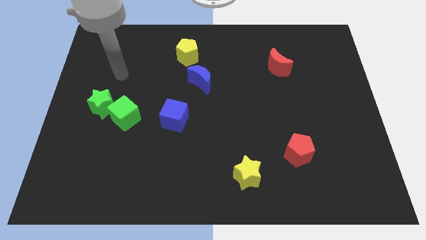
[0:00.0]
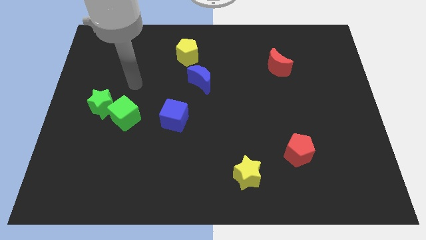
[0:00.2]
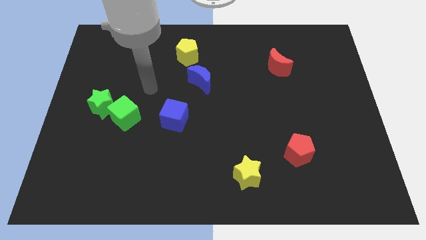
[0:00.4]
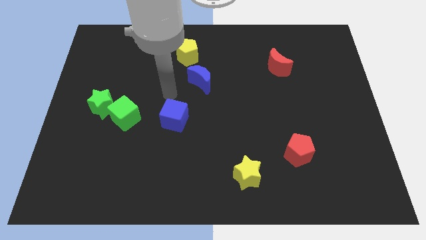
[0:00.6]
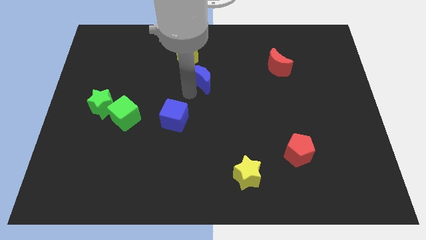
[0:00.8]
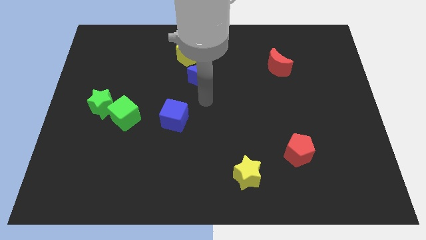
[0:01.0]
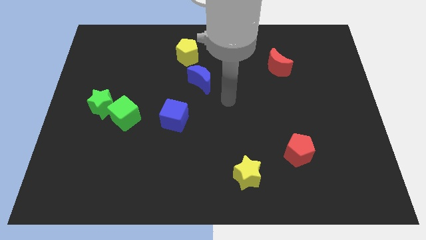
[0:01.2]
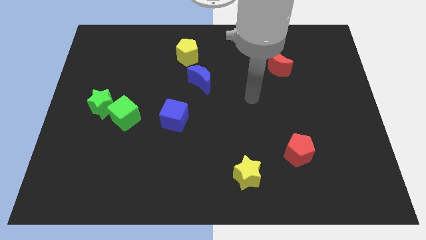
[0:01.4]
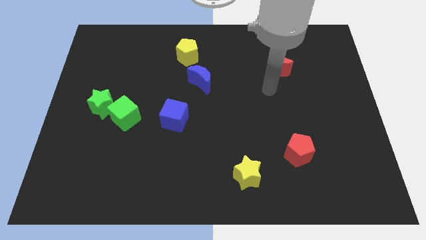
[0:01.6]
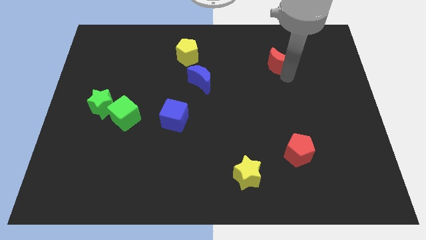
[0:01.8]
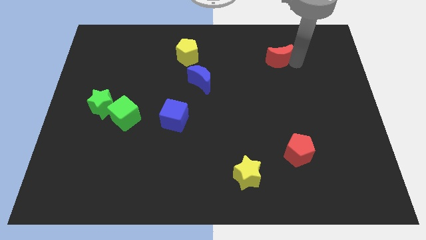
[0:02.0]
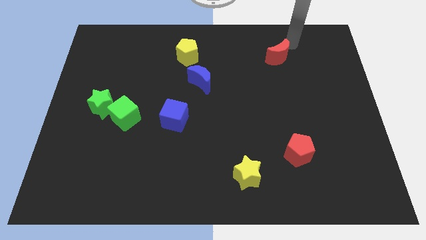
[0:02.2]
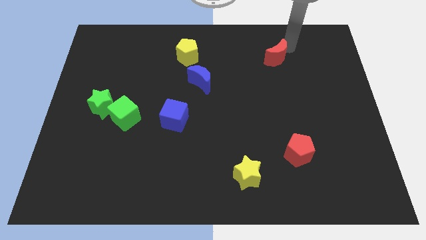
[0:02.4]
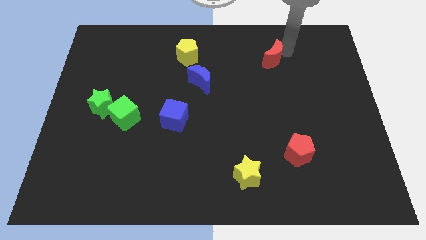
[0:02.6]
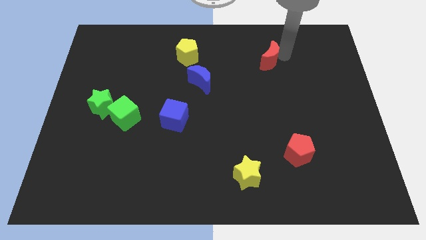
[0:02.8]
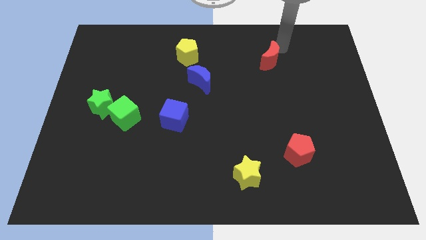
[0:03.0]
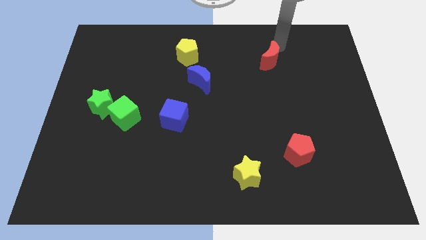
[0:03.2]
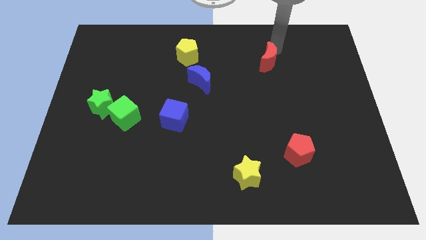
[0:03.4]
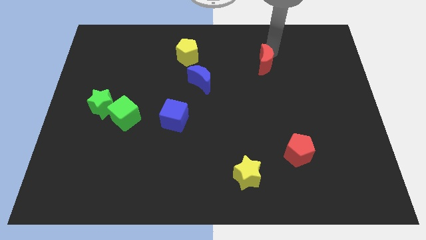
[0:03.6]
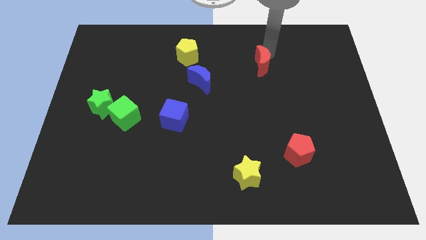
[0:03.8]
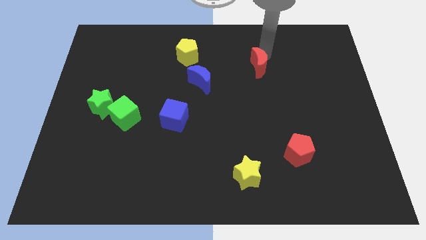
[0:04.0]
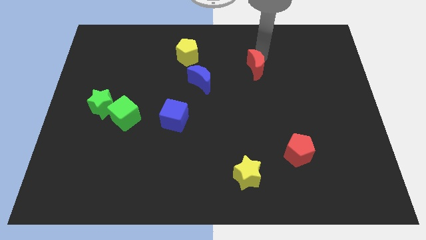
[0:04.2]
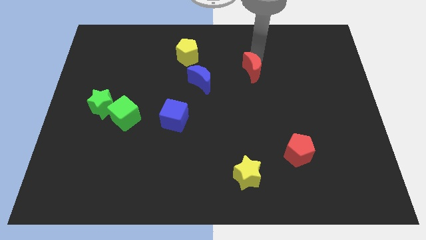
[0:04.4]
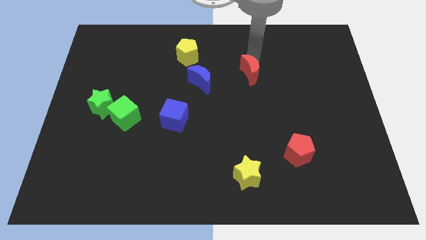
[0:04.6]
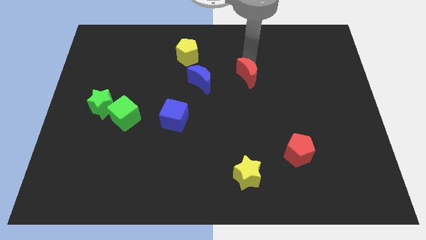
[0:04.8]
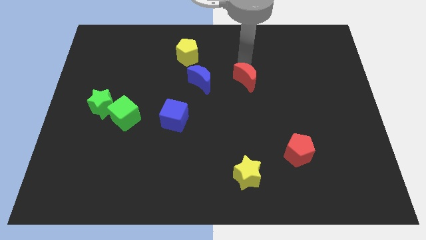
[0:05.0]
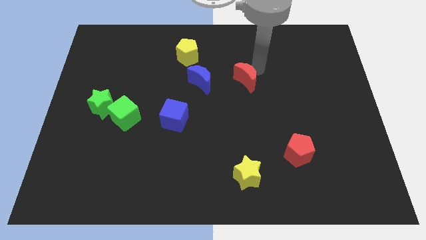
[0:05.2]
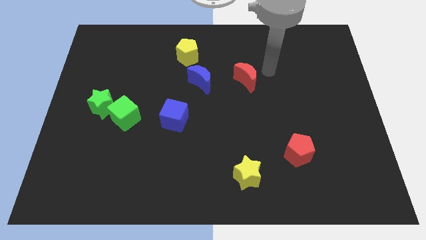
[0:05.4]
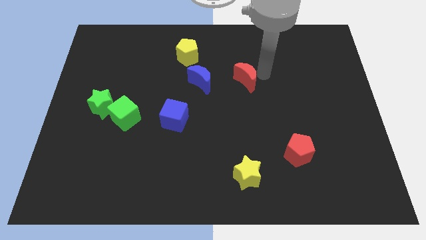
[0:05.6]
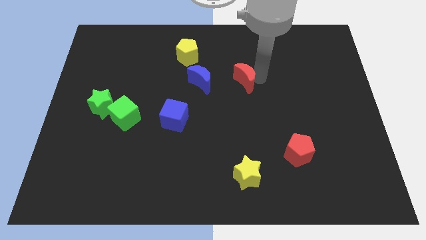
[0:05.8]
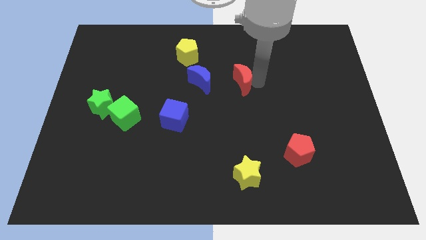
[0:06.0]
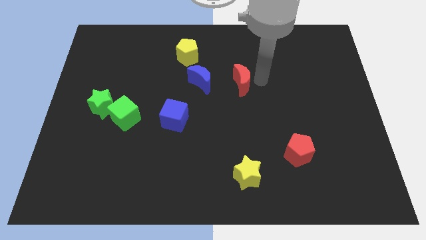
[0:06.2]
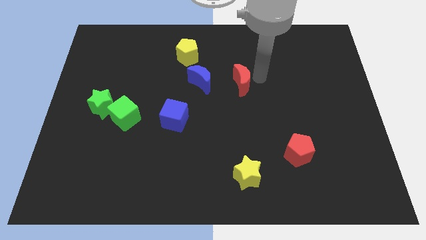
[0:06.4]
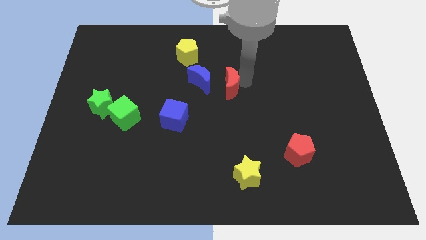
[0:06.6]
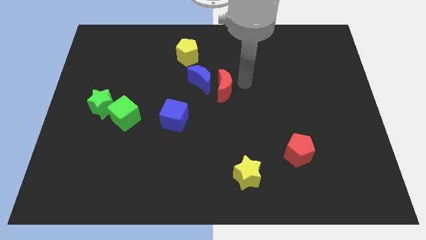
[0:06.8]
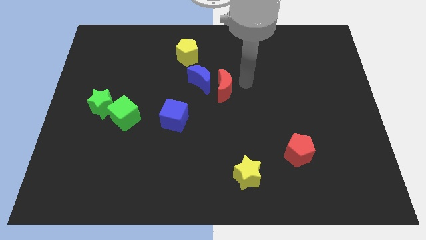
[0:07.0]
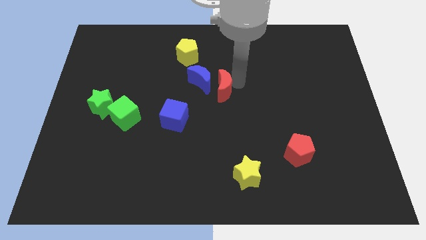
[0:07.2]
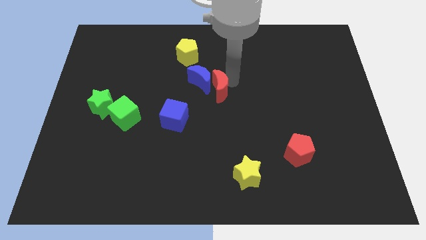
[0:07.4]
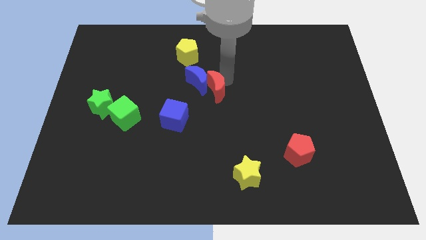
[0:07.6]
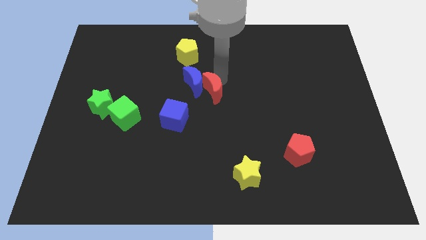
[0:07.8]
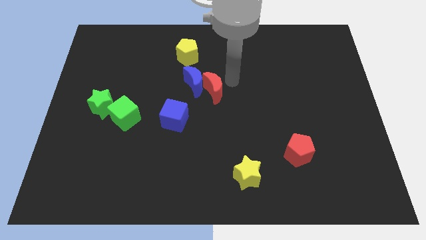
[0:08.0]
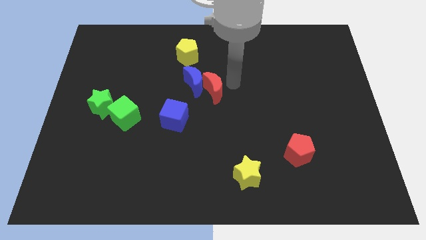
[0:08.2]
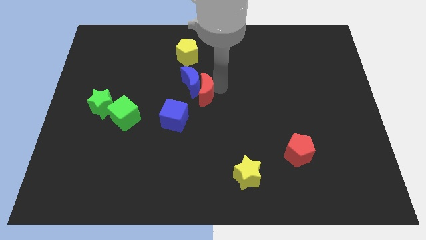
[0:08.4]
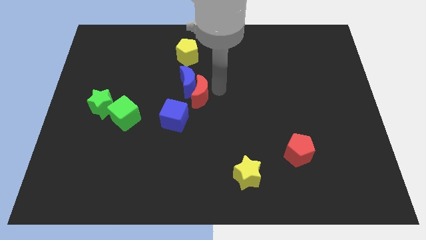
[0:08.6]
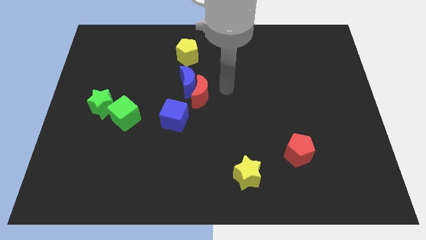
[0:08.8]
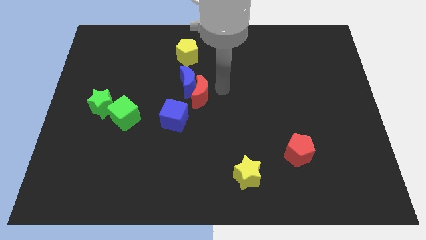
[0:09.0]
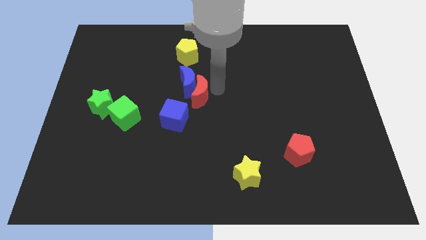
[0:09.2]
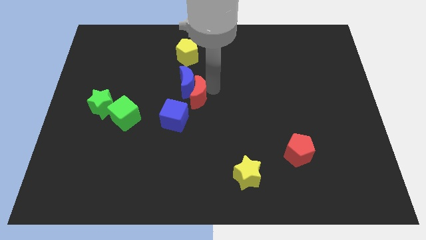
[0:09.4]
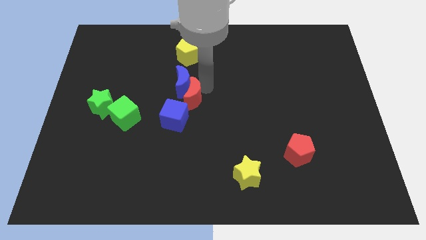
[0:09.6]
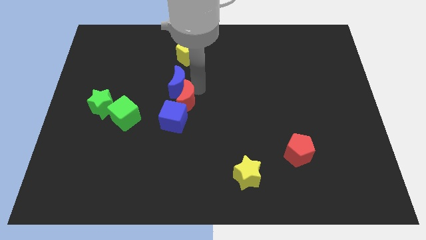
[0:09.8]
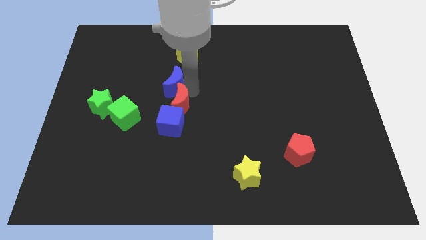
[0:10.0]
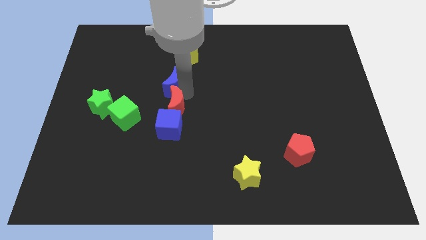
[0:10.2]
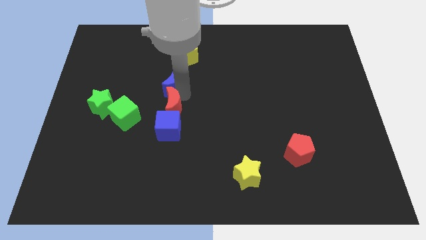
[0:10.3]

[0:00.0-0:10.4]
move the red moon to the top left side of the blue cube

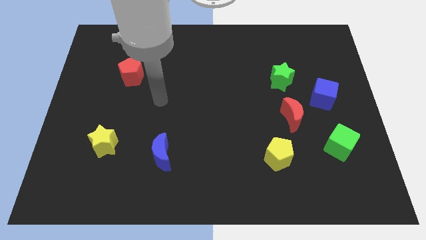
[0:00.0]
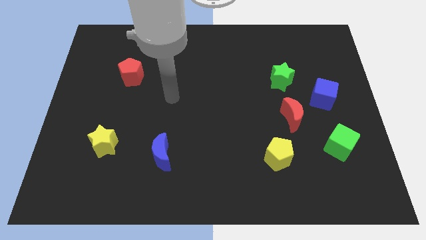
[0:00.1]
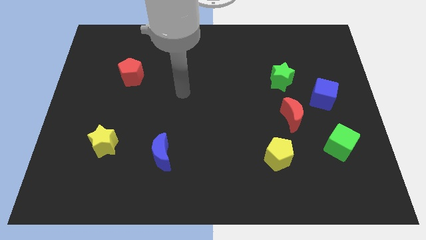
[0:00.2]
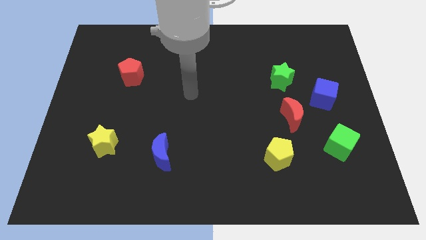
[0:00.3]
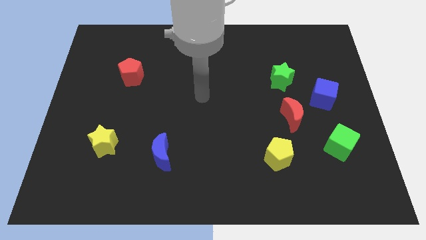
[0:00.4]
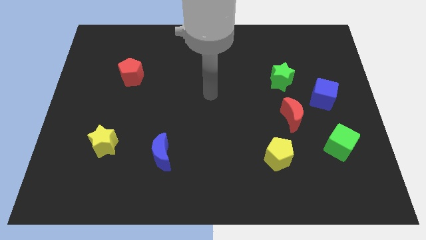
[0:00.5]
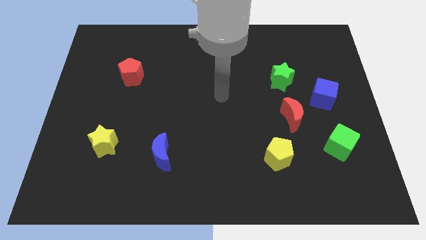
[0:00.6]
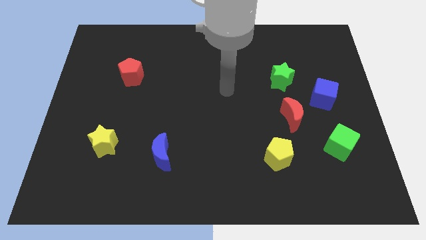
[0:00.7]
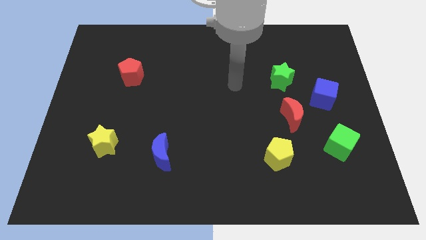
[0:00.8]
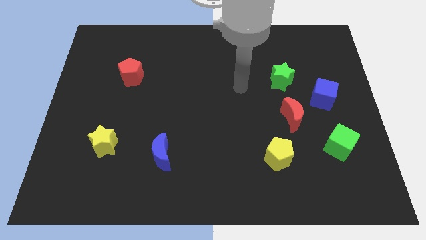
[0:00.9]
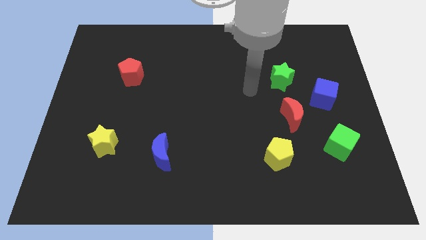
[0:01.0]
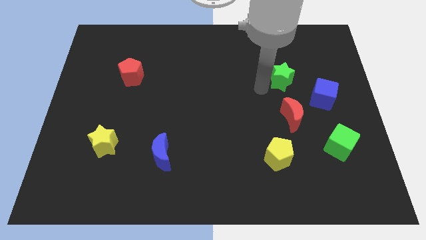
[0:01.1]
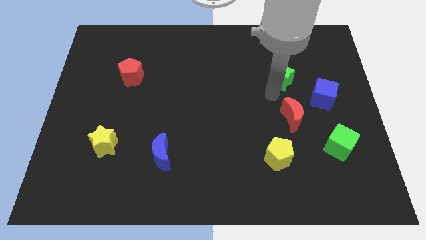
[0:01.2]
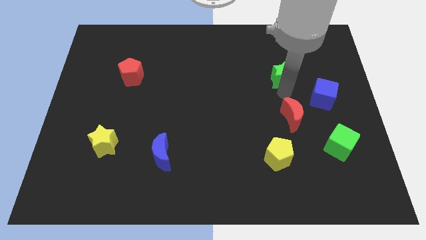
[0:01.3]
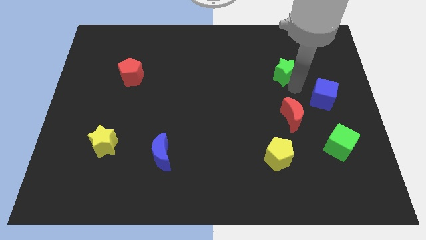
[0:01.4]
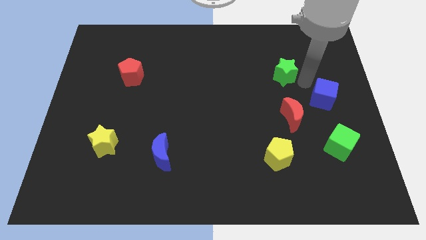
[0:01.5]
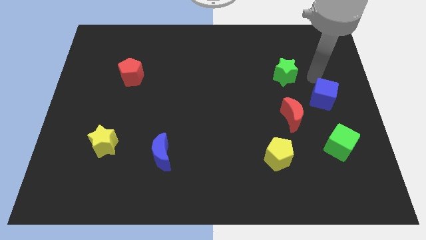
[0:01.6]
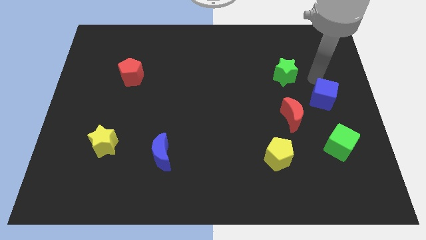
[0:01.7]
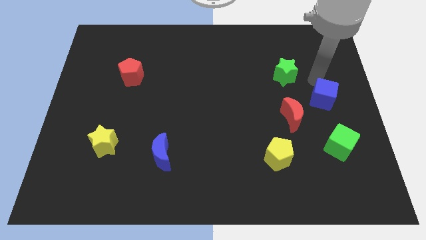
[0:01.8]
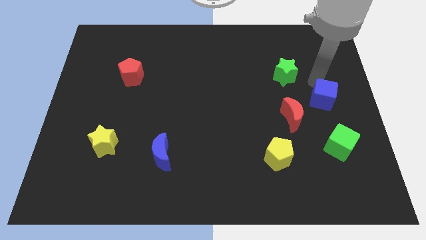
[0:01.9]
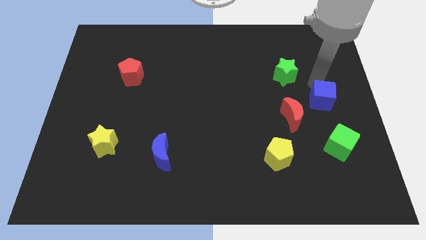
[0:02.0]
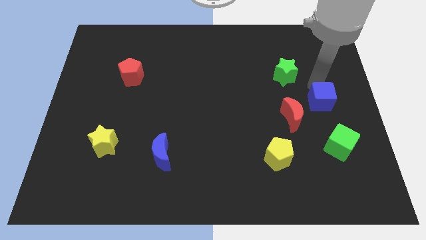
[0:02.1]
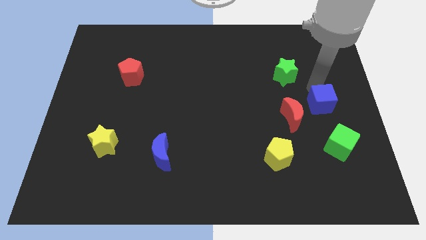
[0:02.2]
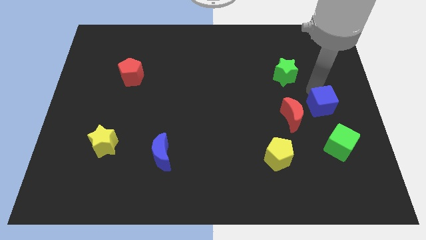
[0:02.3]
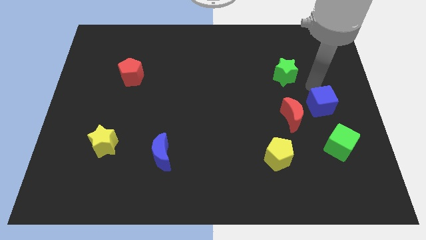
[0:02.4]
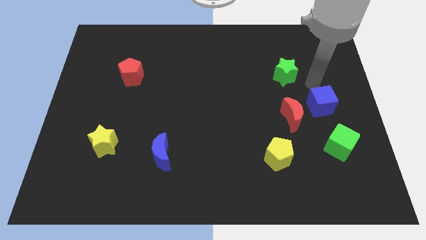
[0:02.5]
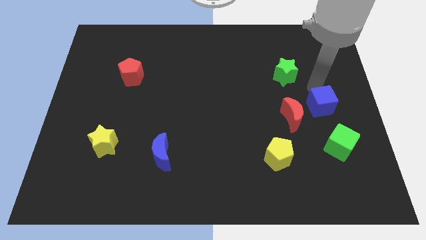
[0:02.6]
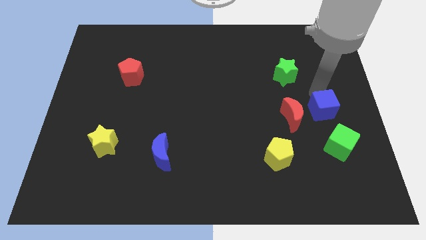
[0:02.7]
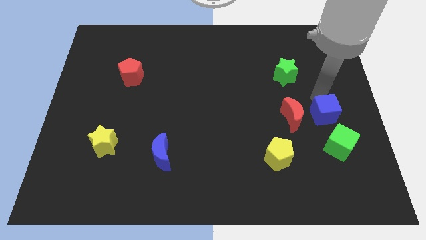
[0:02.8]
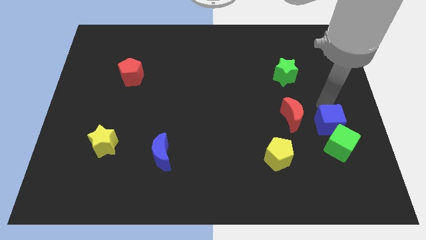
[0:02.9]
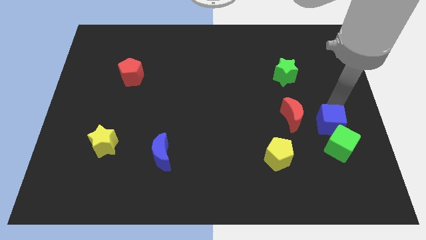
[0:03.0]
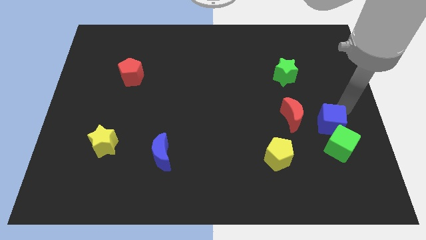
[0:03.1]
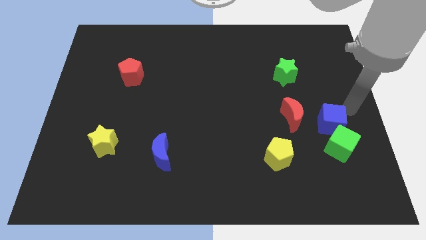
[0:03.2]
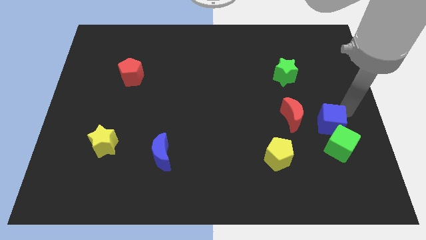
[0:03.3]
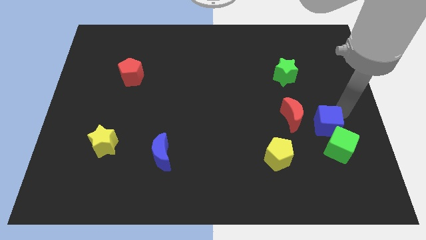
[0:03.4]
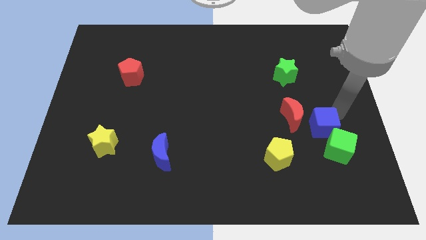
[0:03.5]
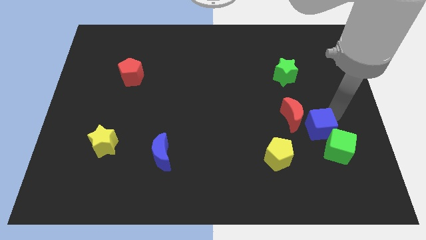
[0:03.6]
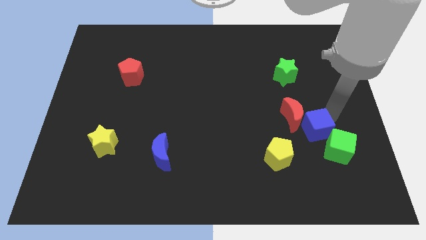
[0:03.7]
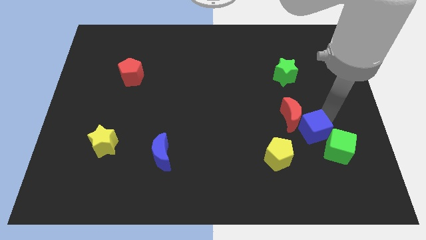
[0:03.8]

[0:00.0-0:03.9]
put the blue cube to the left of the green cube
